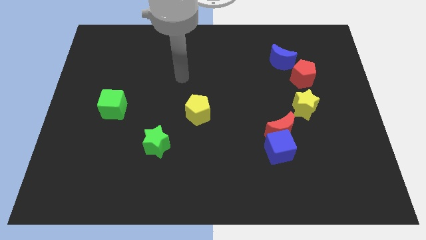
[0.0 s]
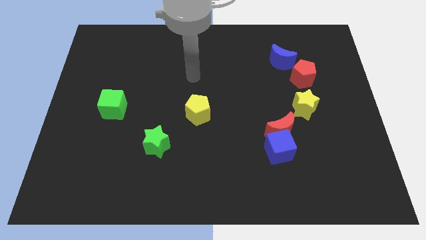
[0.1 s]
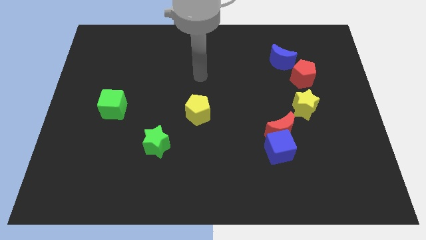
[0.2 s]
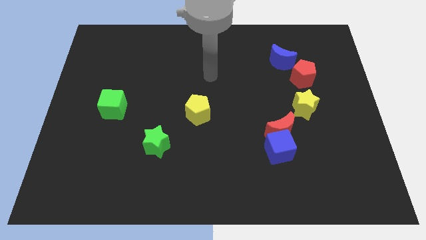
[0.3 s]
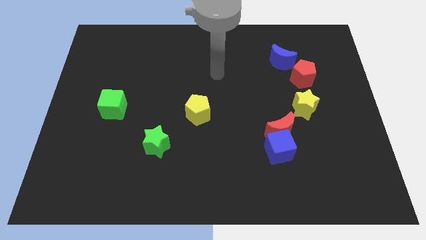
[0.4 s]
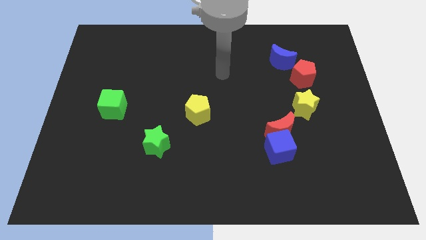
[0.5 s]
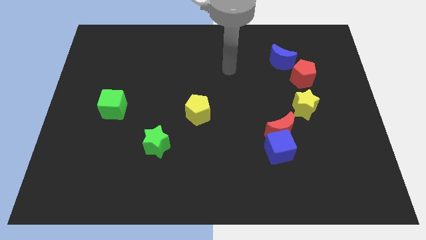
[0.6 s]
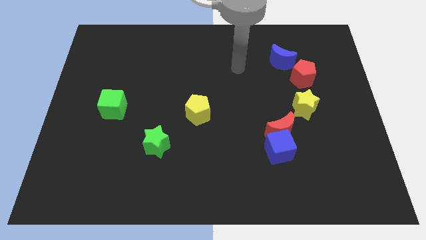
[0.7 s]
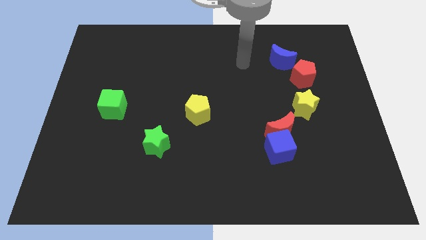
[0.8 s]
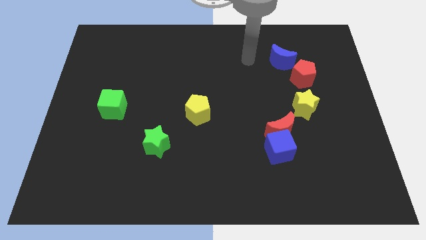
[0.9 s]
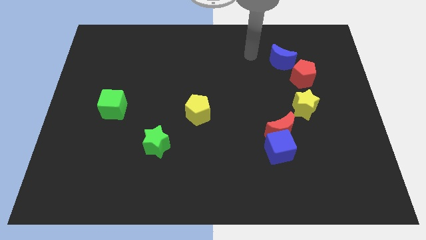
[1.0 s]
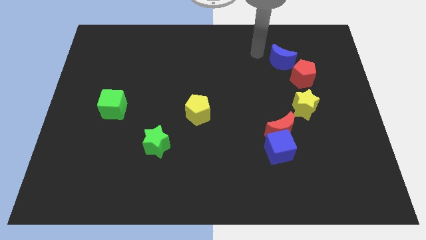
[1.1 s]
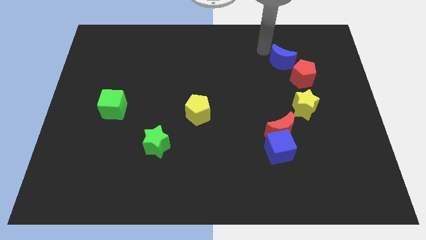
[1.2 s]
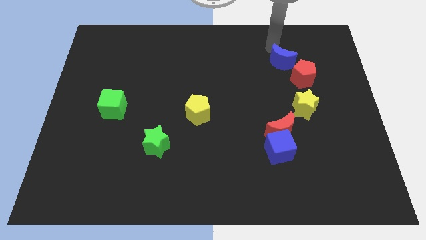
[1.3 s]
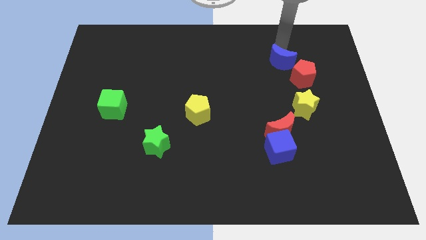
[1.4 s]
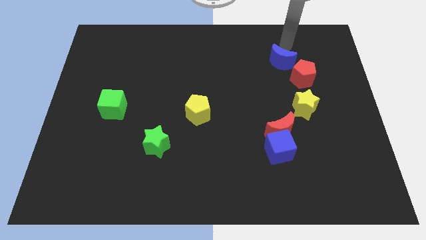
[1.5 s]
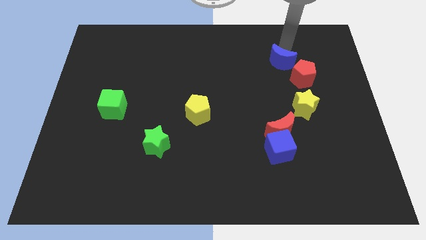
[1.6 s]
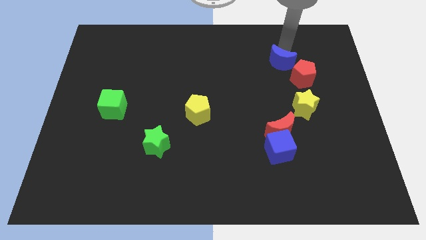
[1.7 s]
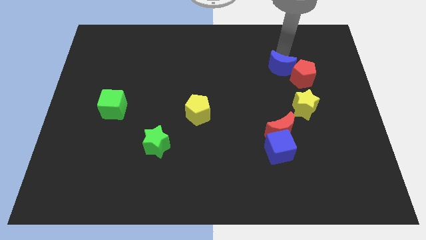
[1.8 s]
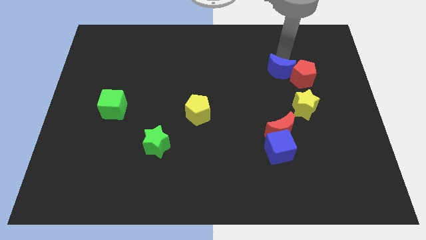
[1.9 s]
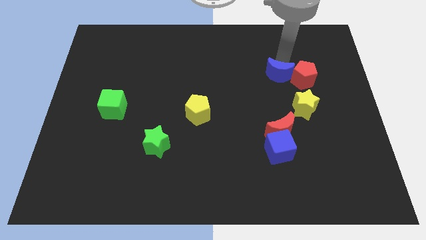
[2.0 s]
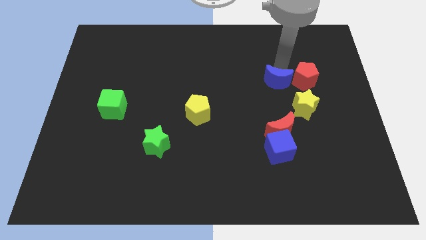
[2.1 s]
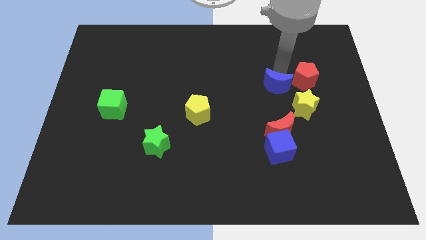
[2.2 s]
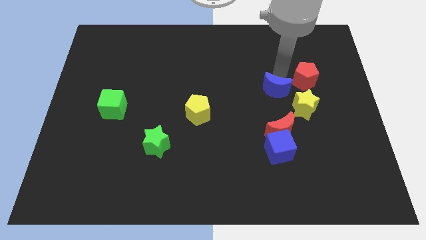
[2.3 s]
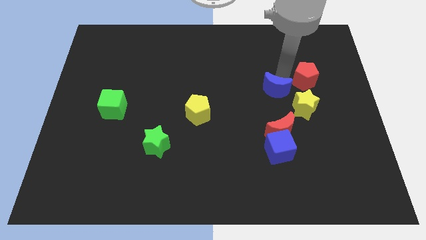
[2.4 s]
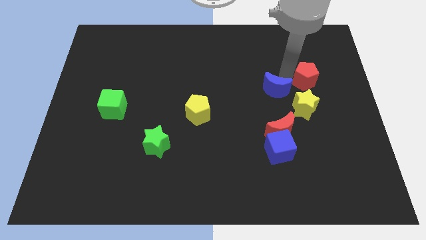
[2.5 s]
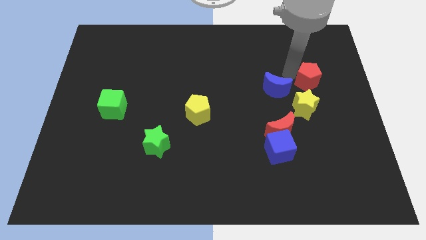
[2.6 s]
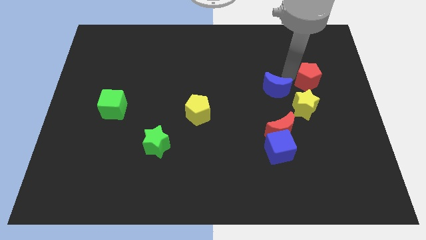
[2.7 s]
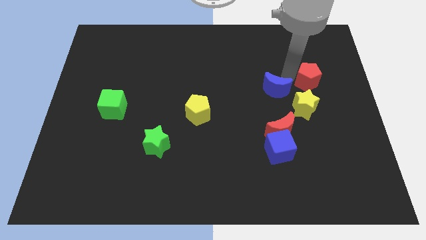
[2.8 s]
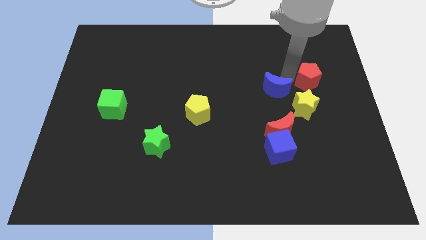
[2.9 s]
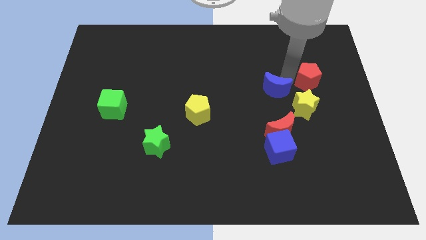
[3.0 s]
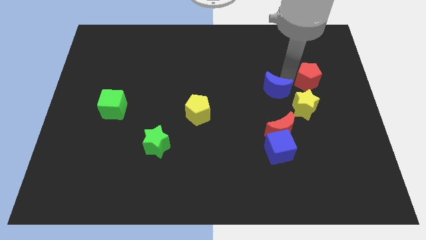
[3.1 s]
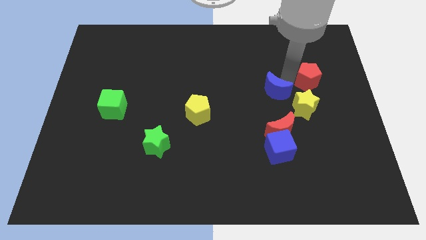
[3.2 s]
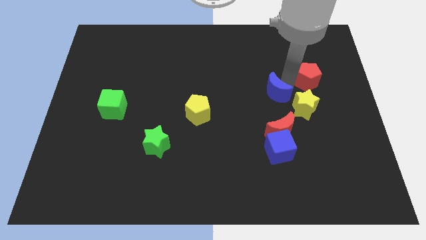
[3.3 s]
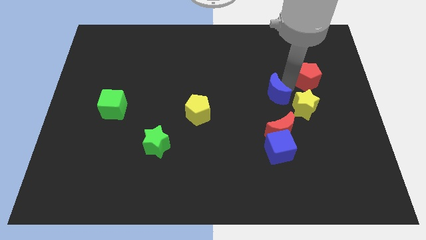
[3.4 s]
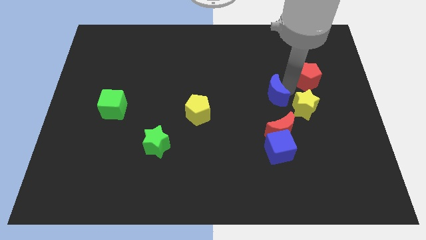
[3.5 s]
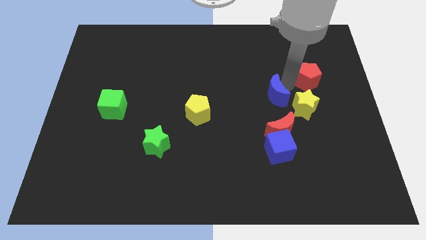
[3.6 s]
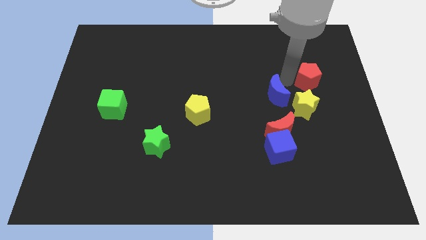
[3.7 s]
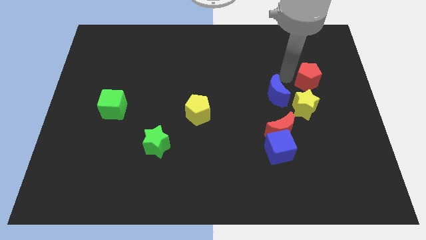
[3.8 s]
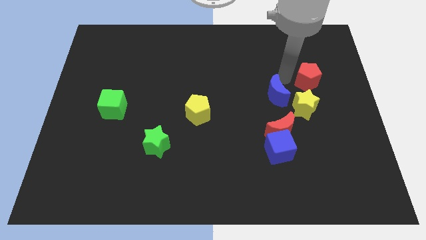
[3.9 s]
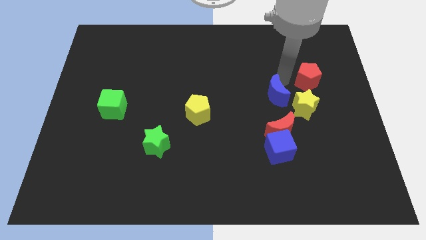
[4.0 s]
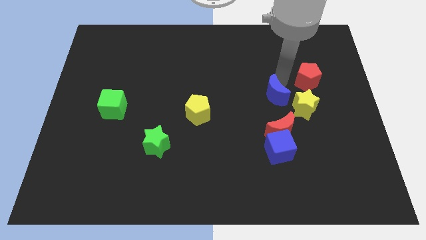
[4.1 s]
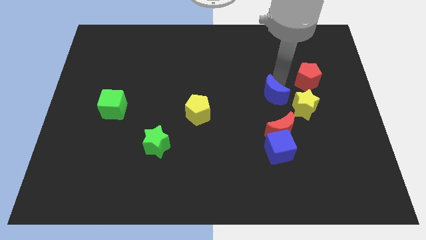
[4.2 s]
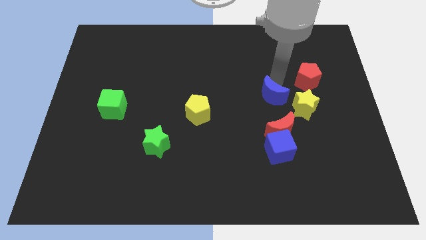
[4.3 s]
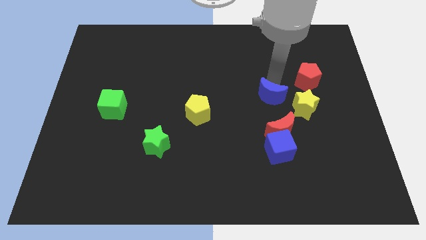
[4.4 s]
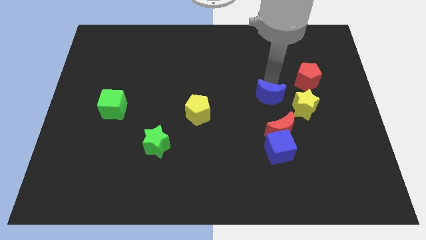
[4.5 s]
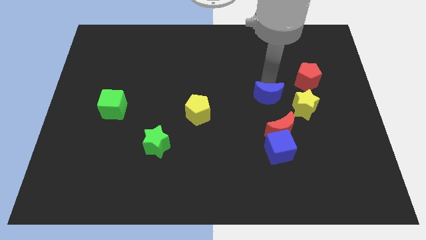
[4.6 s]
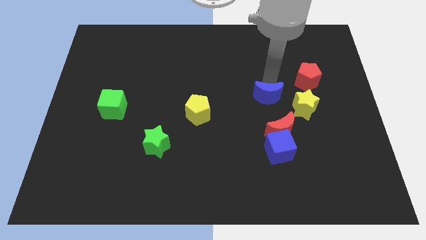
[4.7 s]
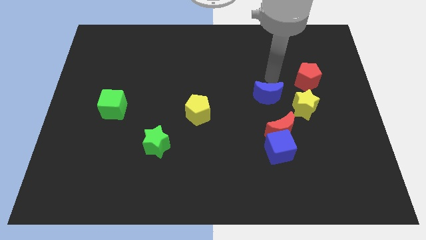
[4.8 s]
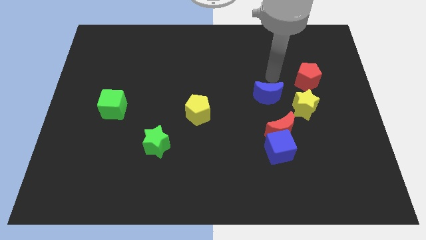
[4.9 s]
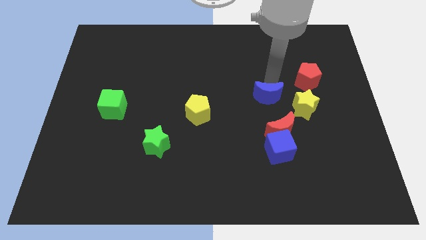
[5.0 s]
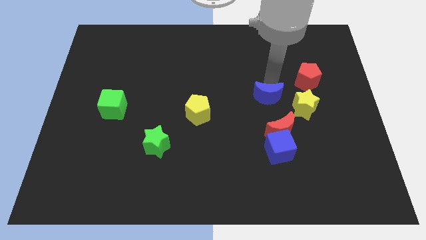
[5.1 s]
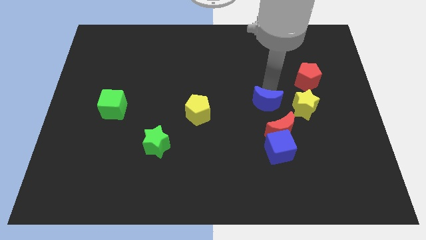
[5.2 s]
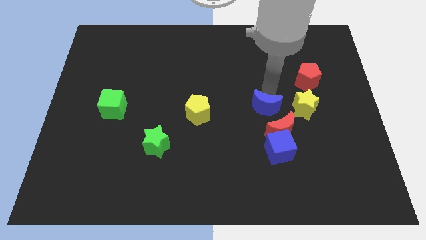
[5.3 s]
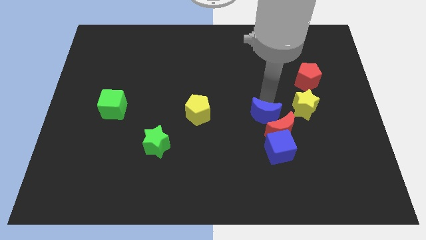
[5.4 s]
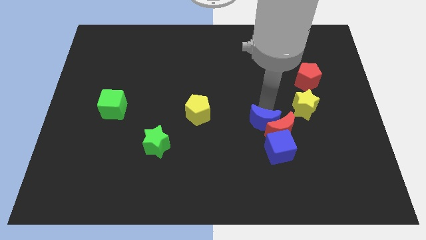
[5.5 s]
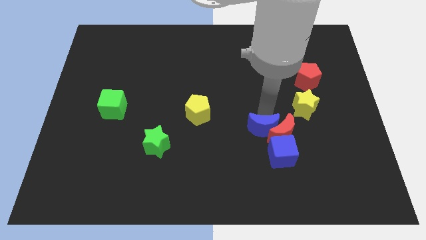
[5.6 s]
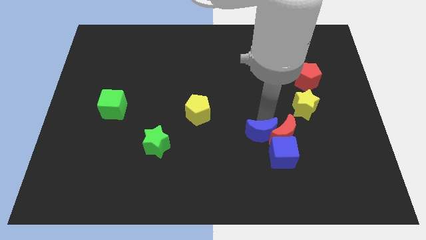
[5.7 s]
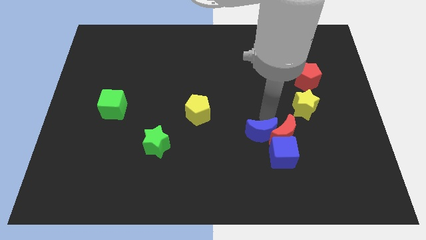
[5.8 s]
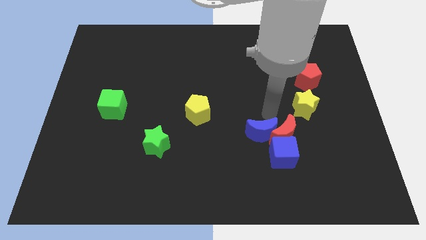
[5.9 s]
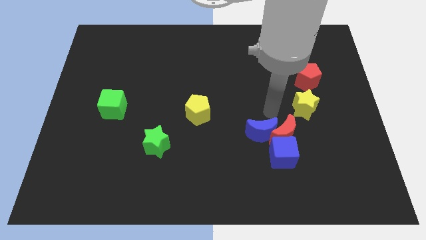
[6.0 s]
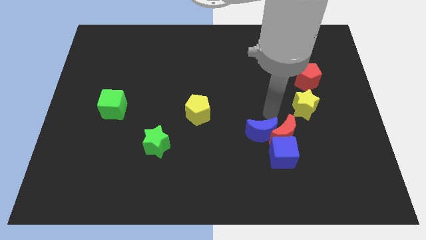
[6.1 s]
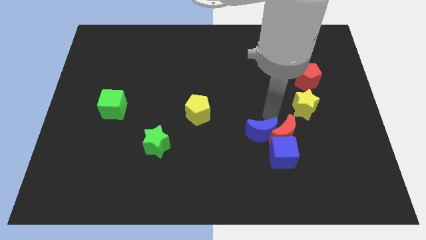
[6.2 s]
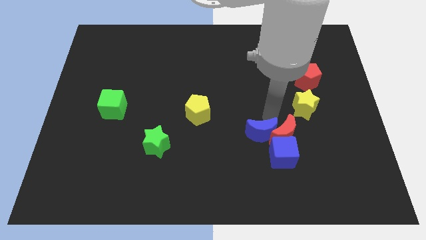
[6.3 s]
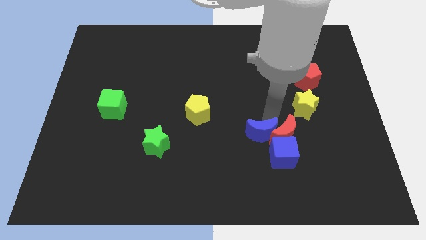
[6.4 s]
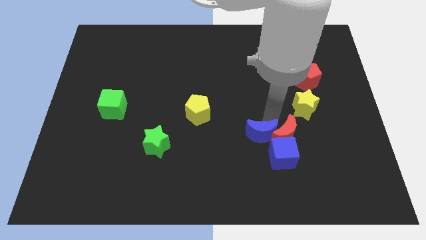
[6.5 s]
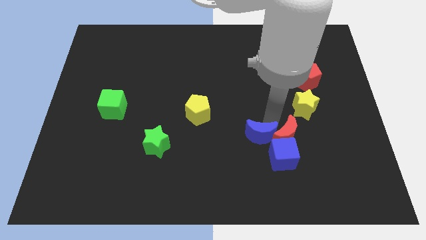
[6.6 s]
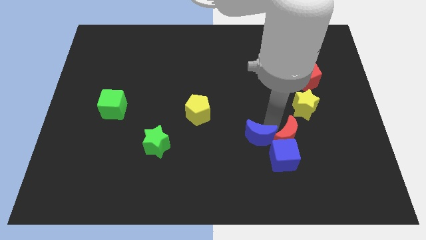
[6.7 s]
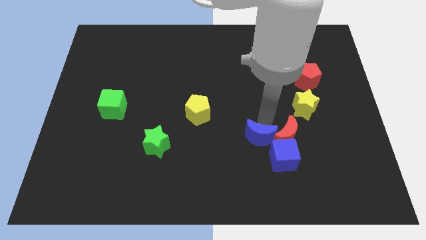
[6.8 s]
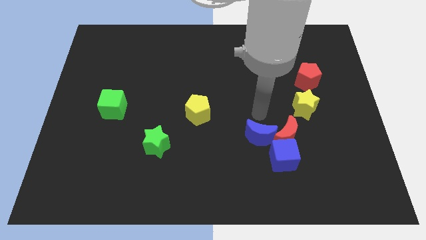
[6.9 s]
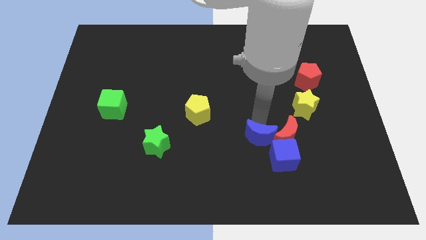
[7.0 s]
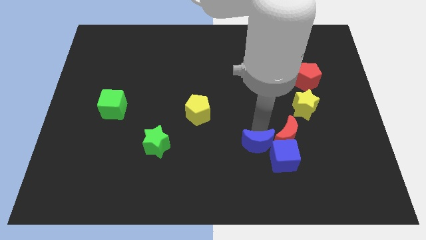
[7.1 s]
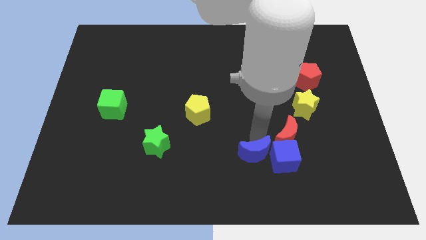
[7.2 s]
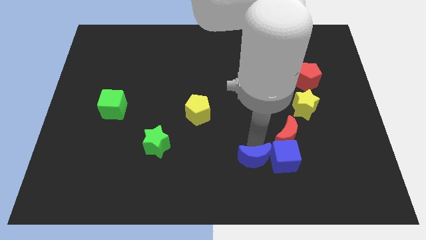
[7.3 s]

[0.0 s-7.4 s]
put the blue moon to the bottom left of the blue cube
